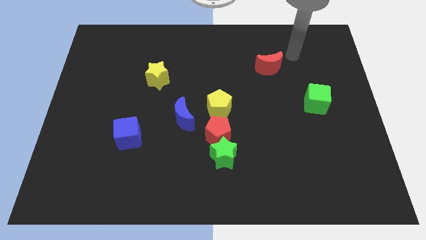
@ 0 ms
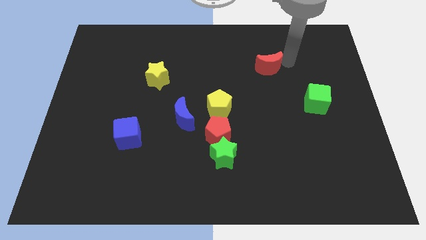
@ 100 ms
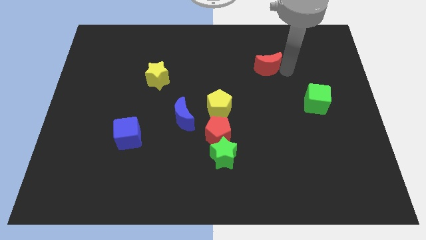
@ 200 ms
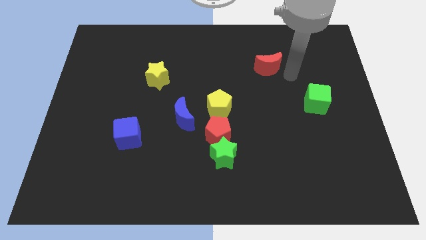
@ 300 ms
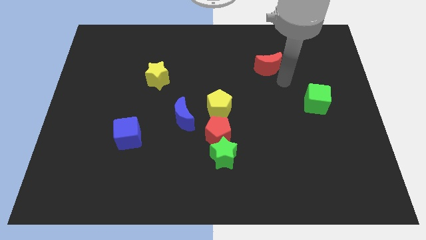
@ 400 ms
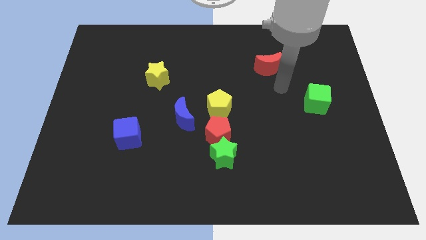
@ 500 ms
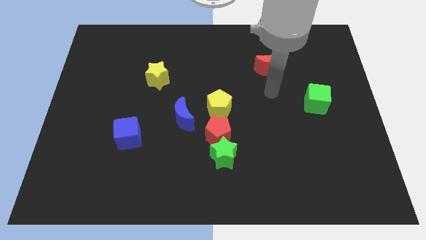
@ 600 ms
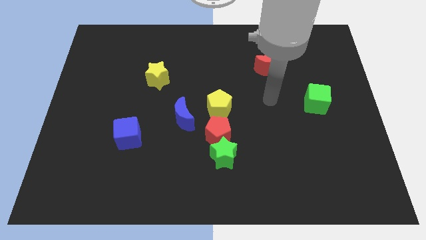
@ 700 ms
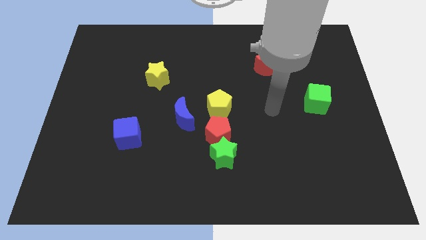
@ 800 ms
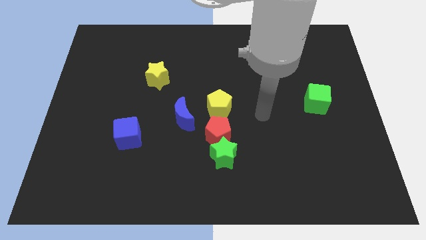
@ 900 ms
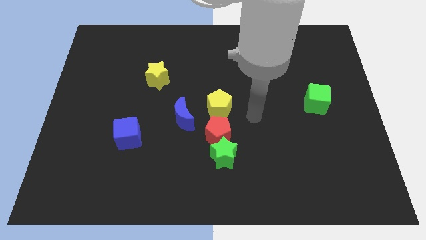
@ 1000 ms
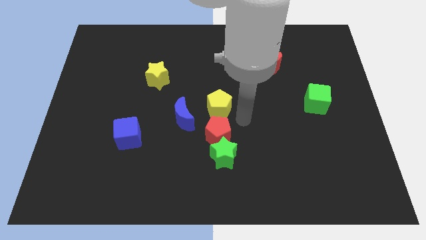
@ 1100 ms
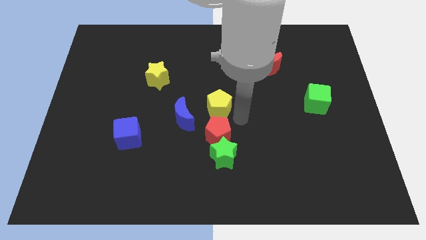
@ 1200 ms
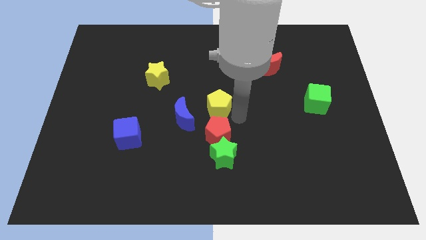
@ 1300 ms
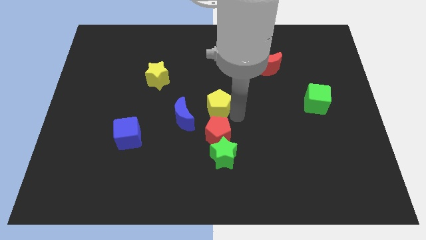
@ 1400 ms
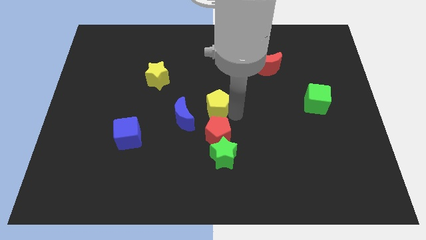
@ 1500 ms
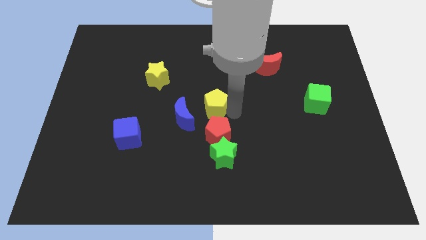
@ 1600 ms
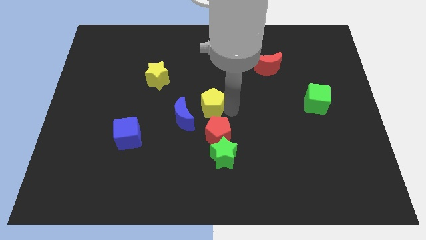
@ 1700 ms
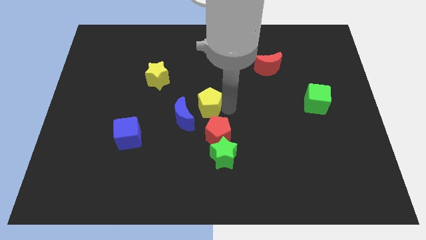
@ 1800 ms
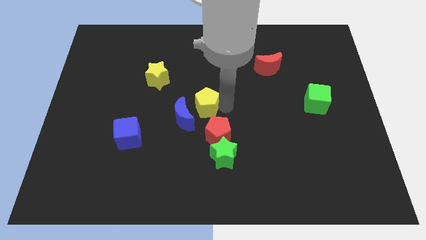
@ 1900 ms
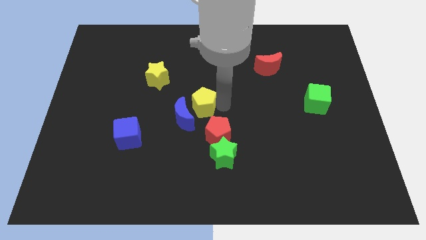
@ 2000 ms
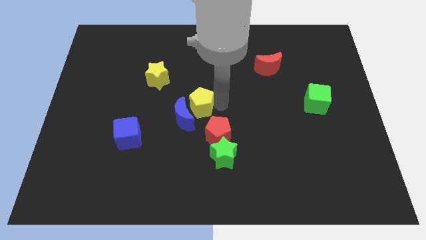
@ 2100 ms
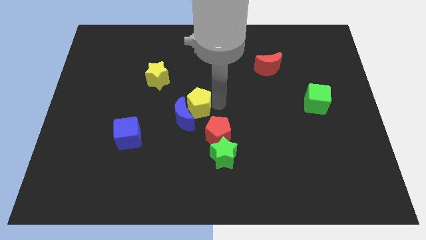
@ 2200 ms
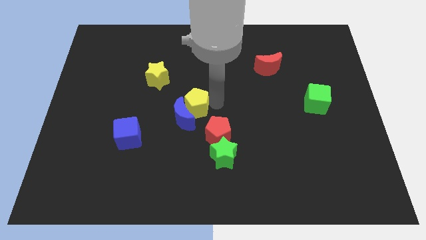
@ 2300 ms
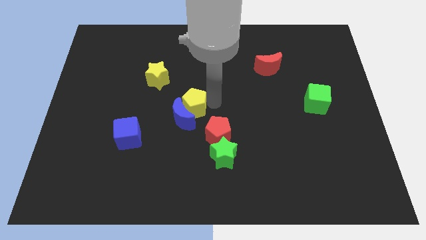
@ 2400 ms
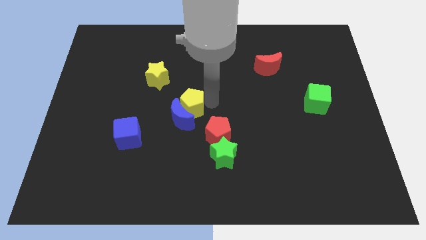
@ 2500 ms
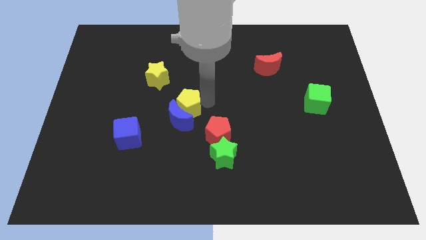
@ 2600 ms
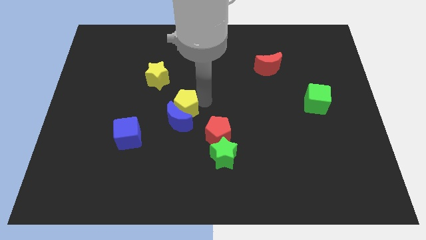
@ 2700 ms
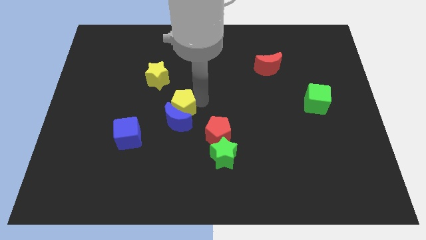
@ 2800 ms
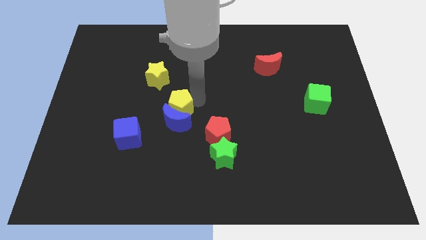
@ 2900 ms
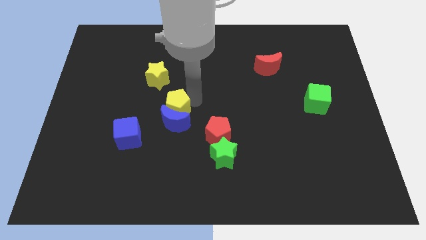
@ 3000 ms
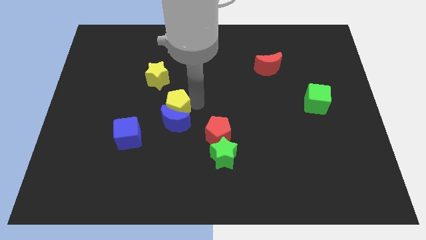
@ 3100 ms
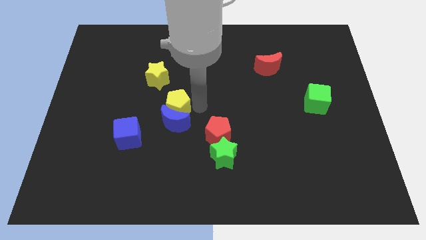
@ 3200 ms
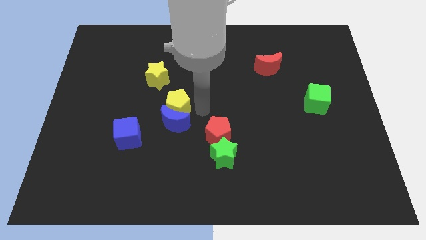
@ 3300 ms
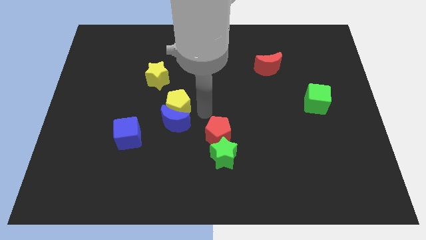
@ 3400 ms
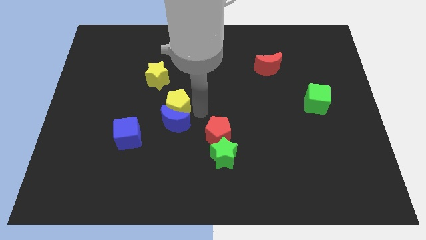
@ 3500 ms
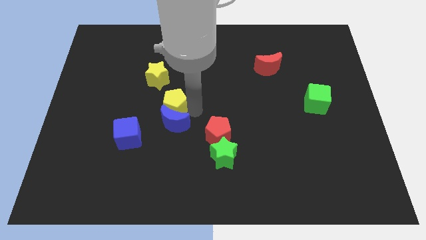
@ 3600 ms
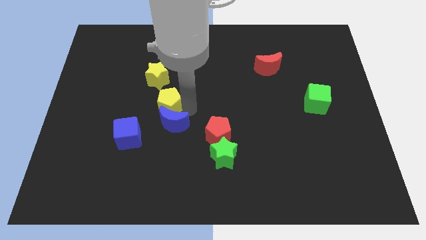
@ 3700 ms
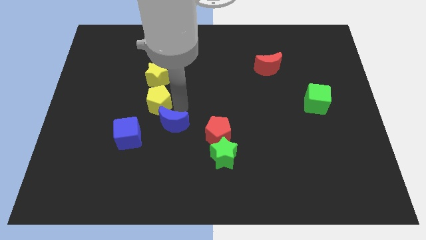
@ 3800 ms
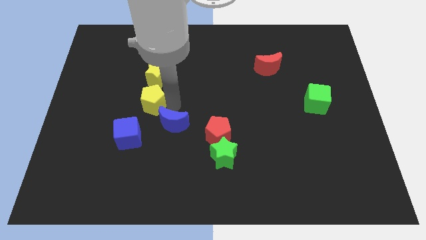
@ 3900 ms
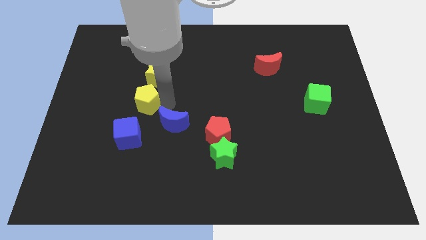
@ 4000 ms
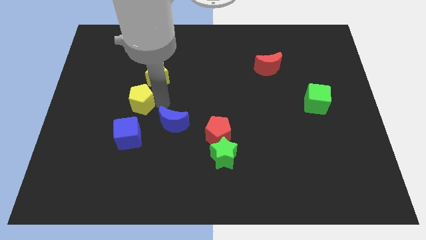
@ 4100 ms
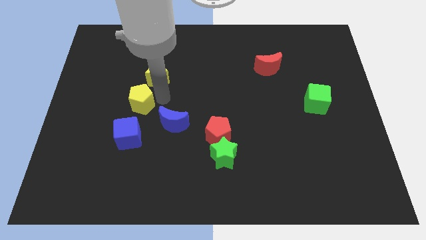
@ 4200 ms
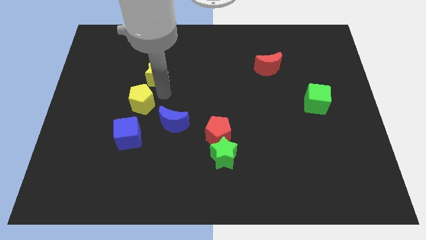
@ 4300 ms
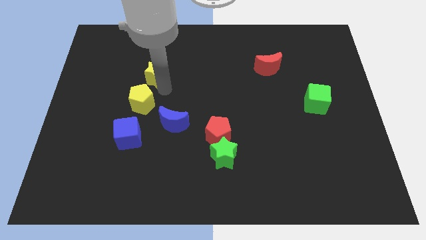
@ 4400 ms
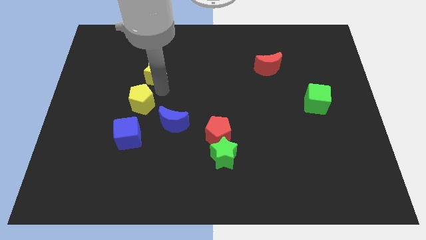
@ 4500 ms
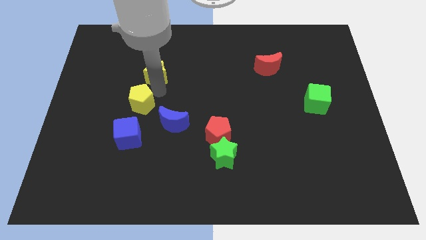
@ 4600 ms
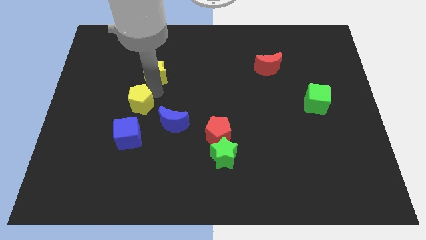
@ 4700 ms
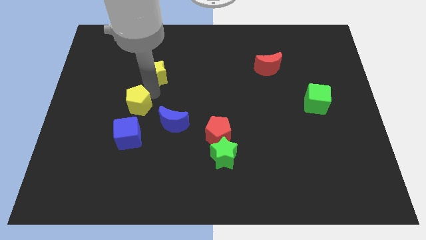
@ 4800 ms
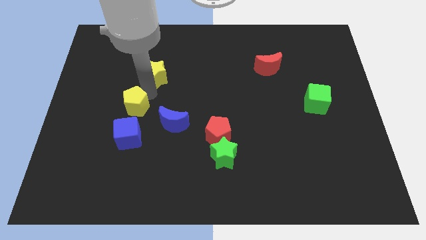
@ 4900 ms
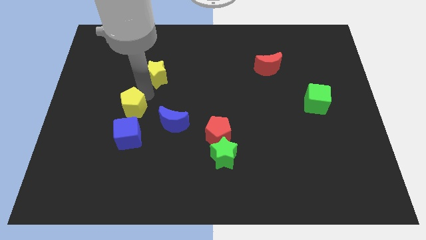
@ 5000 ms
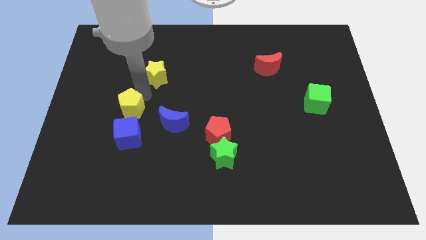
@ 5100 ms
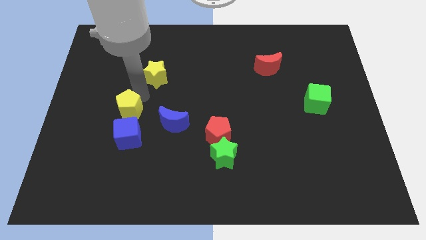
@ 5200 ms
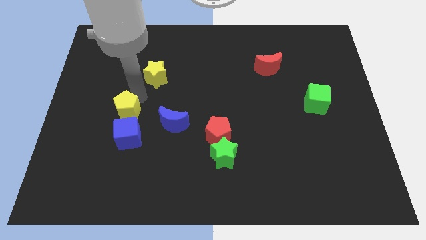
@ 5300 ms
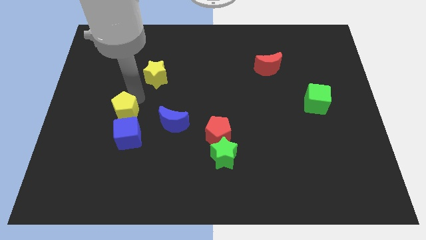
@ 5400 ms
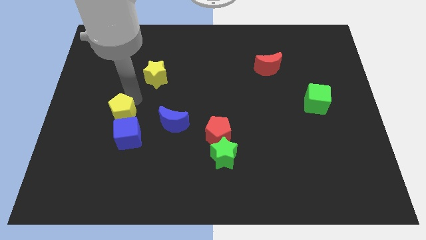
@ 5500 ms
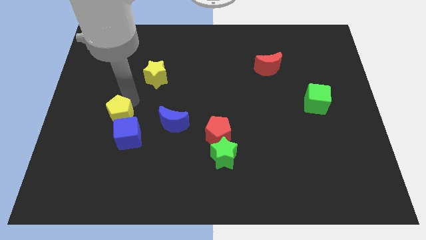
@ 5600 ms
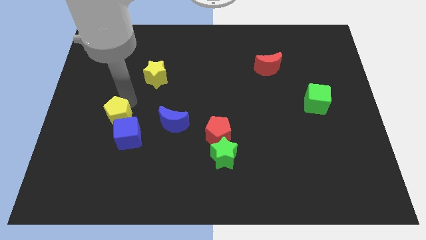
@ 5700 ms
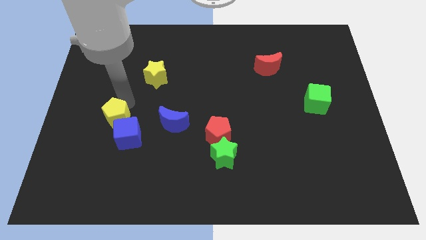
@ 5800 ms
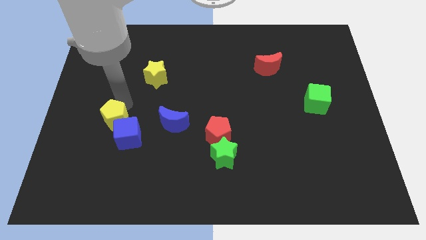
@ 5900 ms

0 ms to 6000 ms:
push the yellow pentagon to the left of the blue cube

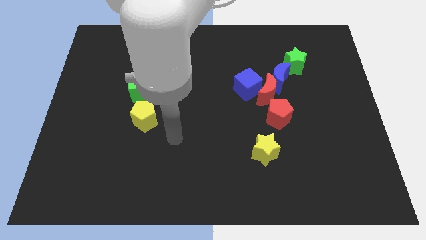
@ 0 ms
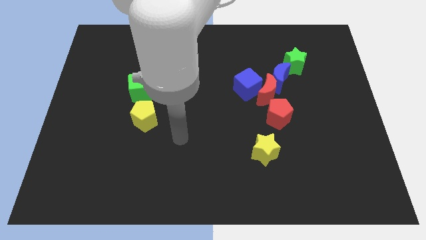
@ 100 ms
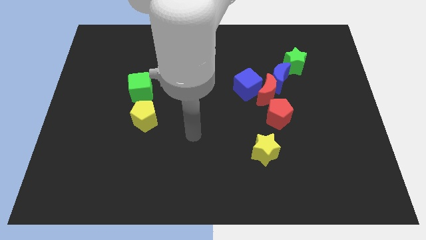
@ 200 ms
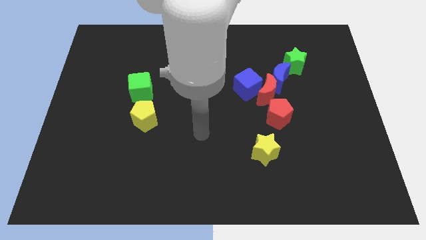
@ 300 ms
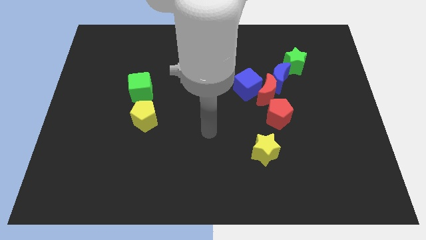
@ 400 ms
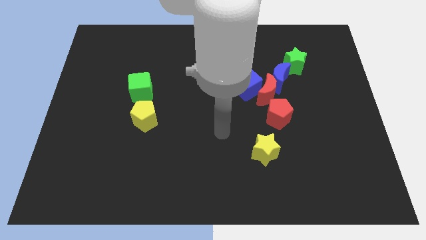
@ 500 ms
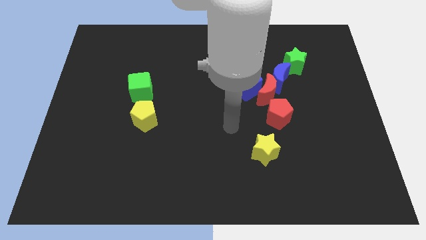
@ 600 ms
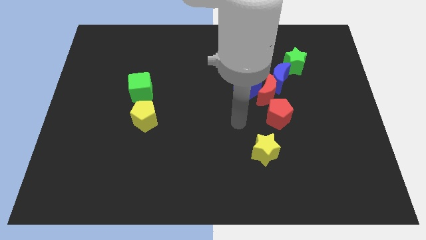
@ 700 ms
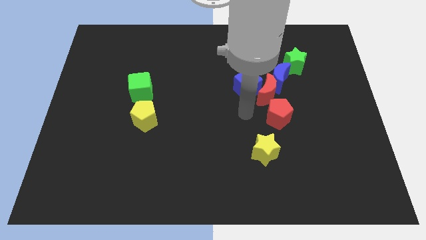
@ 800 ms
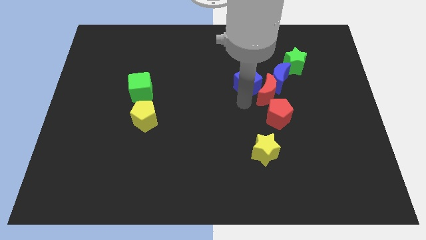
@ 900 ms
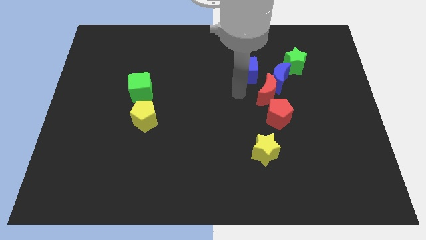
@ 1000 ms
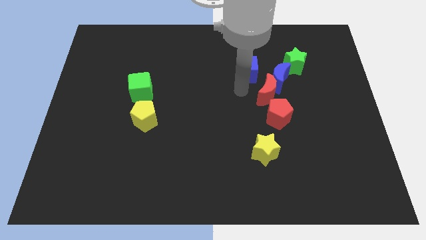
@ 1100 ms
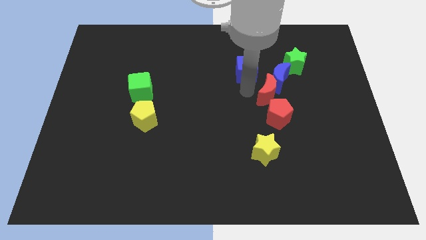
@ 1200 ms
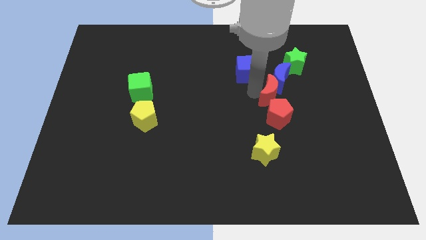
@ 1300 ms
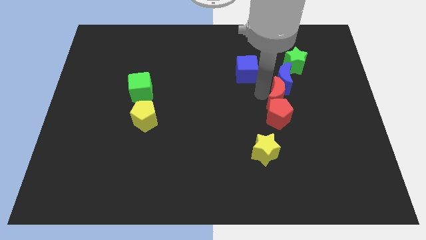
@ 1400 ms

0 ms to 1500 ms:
move the red moon to the top right of the red pentagon
